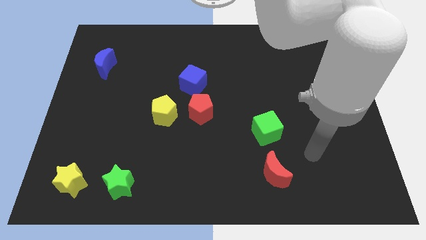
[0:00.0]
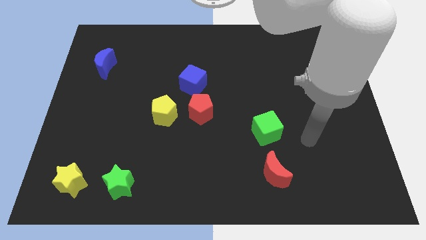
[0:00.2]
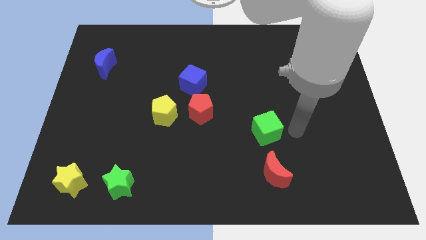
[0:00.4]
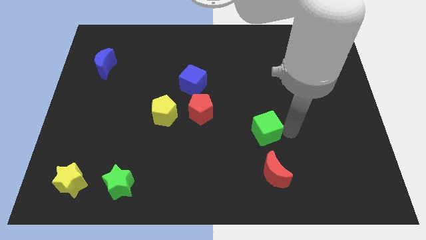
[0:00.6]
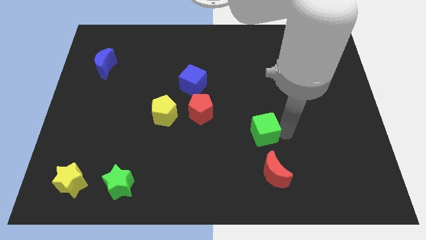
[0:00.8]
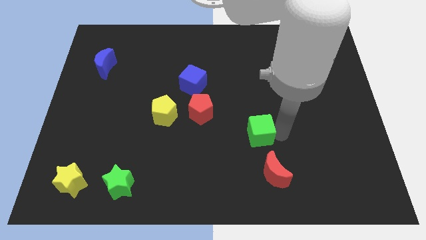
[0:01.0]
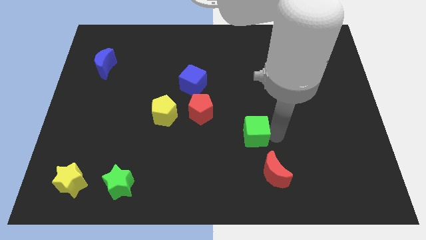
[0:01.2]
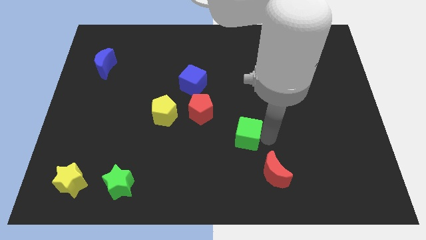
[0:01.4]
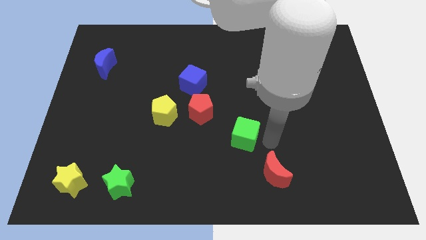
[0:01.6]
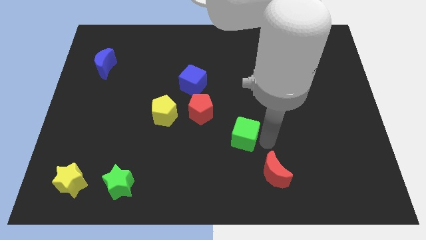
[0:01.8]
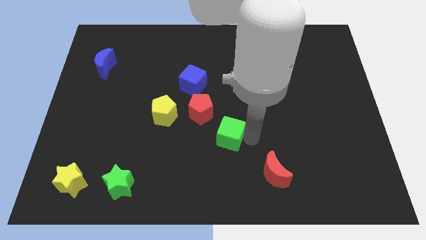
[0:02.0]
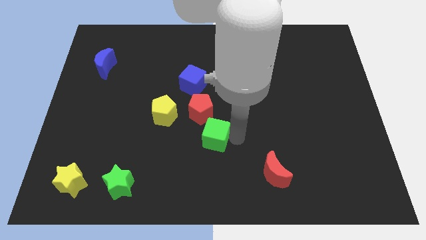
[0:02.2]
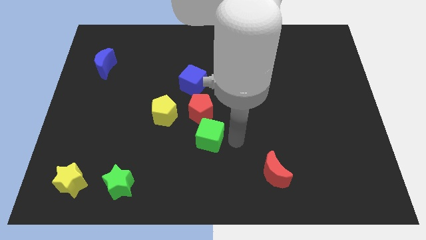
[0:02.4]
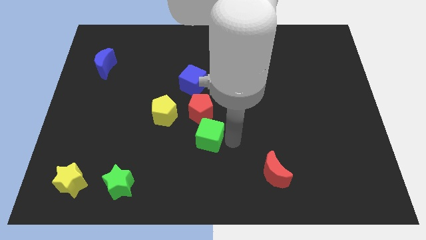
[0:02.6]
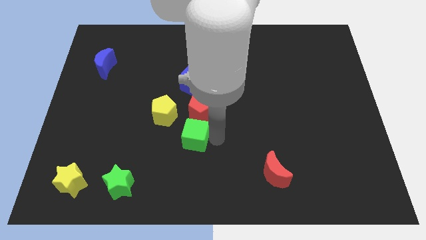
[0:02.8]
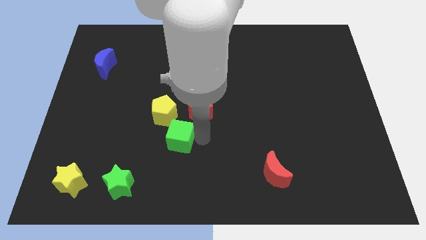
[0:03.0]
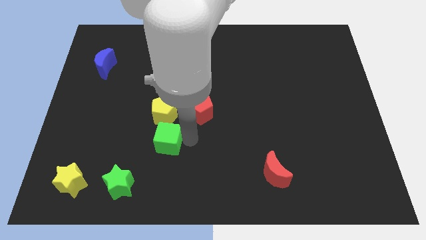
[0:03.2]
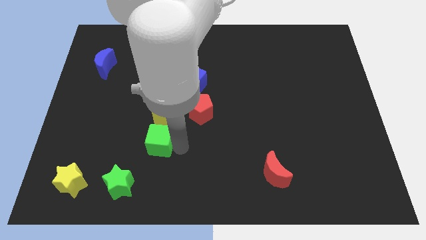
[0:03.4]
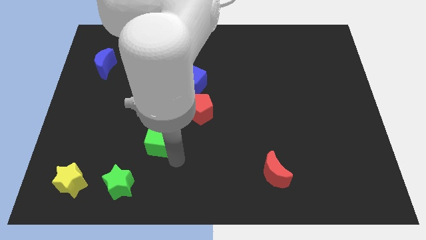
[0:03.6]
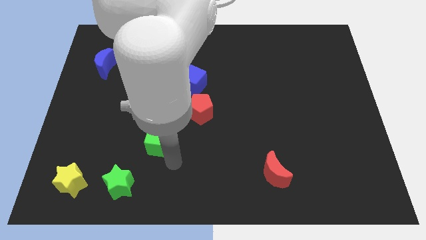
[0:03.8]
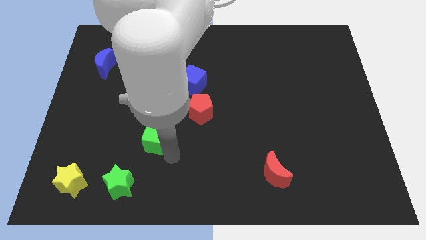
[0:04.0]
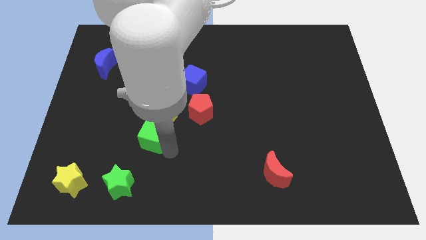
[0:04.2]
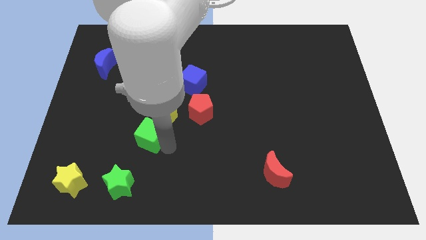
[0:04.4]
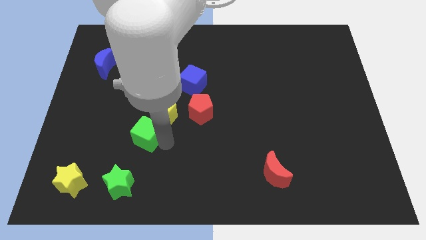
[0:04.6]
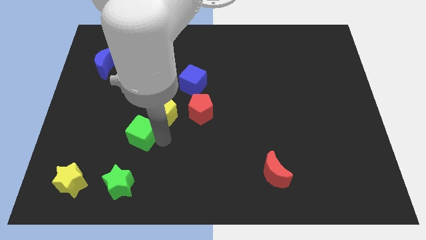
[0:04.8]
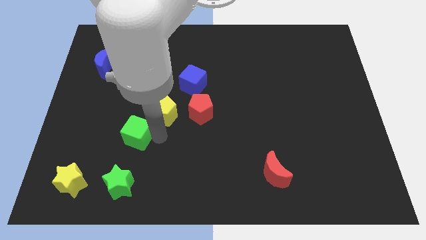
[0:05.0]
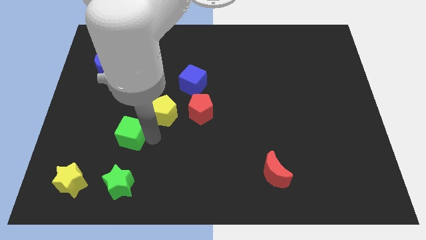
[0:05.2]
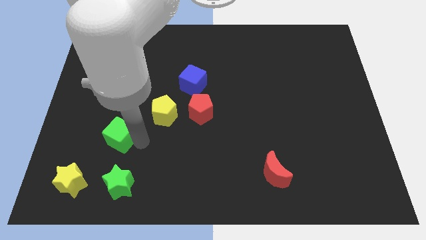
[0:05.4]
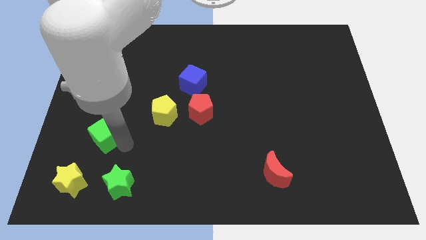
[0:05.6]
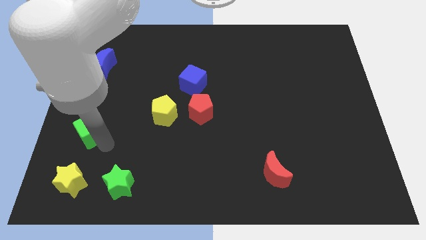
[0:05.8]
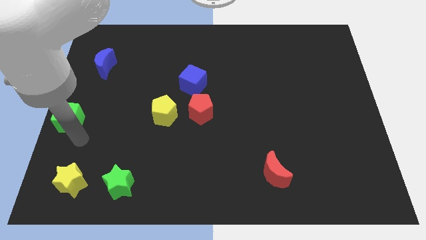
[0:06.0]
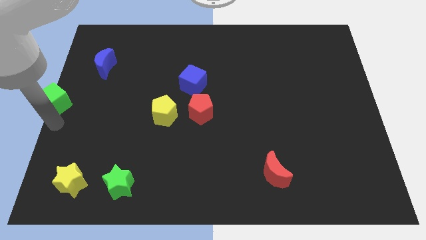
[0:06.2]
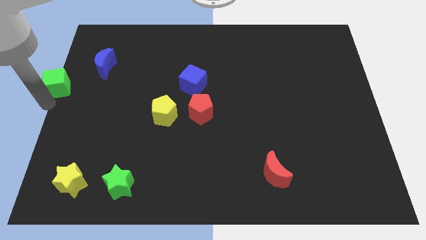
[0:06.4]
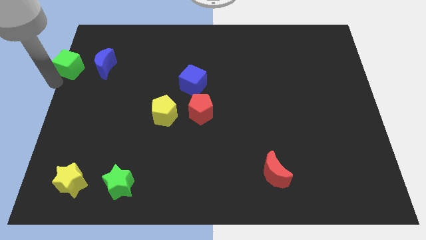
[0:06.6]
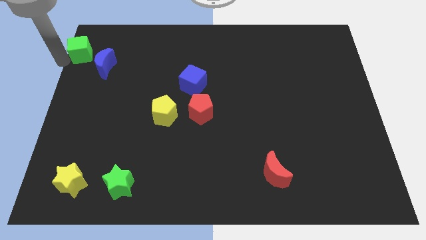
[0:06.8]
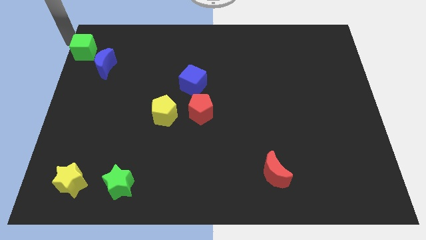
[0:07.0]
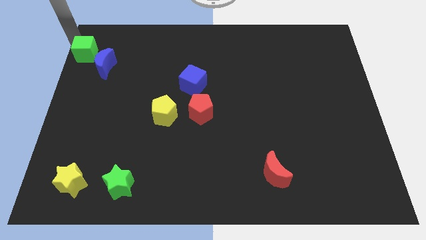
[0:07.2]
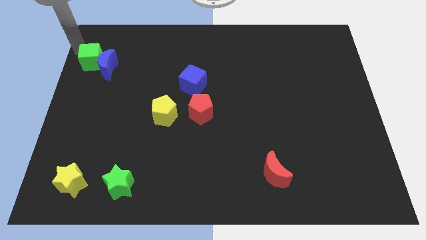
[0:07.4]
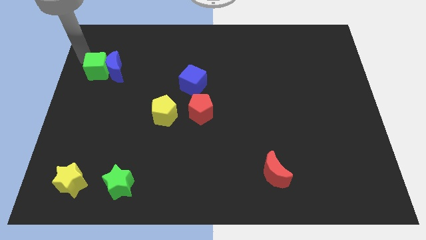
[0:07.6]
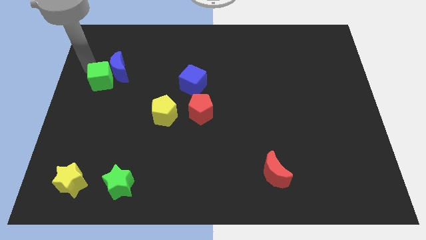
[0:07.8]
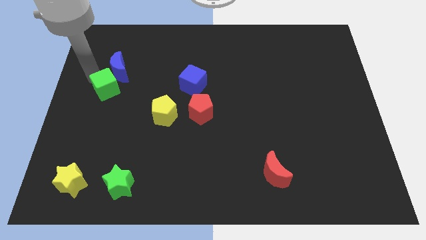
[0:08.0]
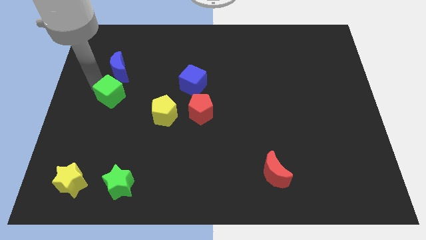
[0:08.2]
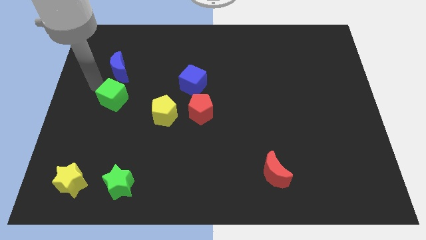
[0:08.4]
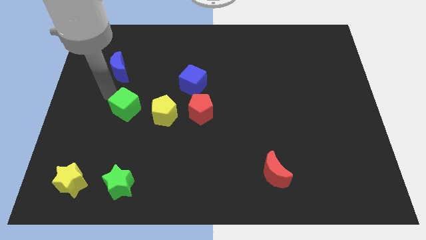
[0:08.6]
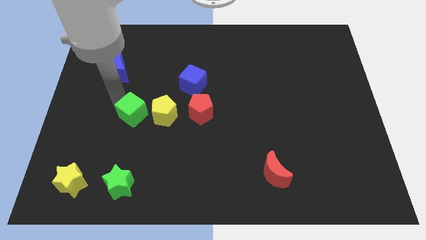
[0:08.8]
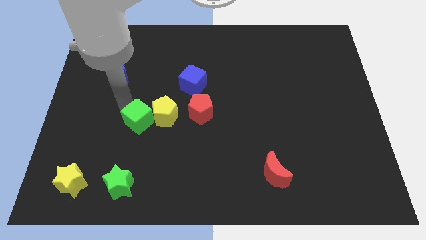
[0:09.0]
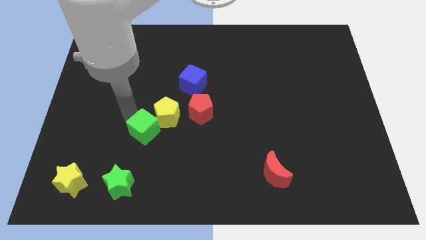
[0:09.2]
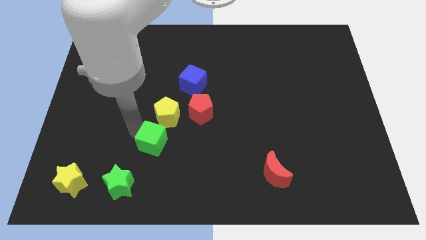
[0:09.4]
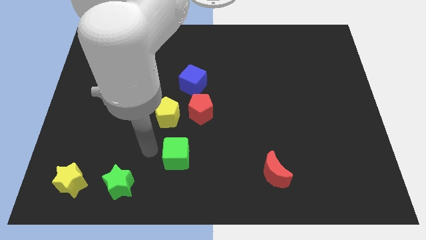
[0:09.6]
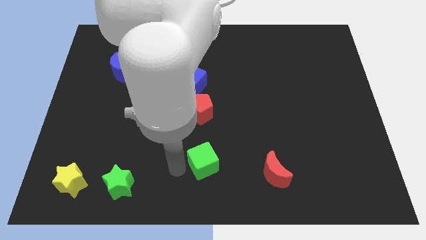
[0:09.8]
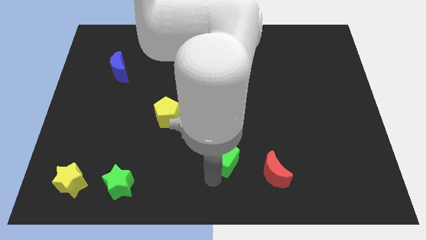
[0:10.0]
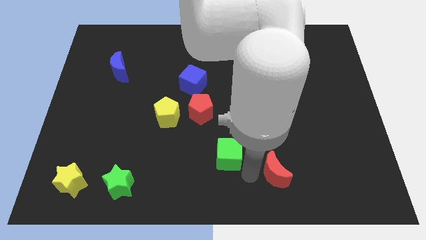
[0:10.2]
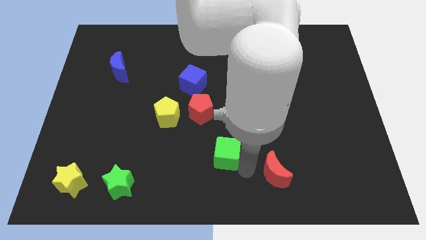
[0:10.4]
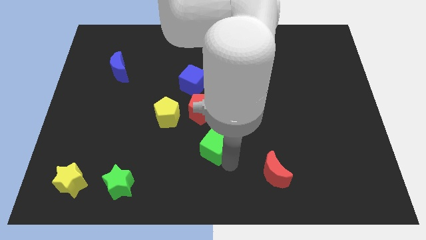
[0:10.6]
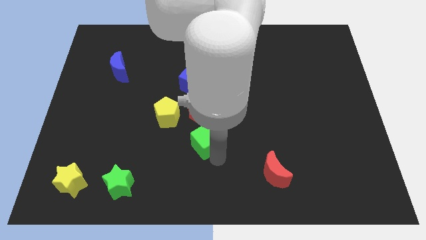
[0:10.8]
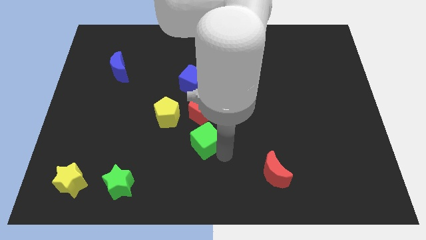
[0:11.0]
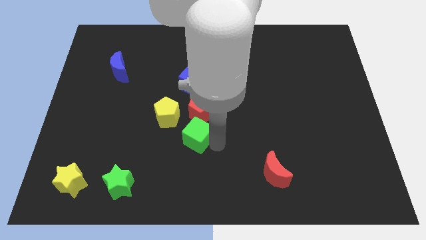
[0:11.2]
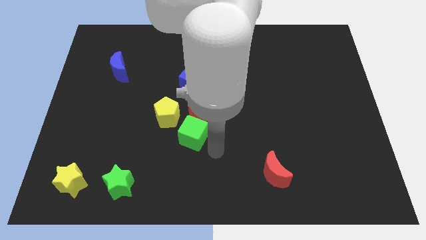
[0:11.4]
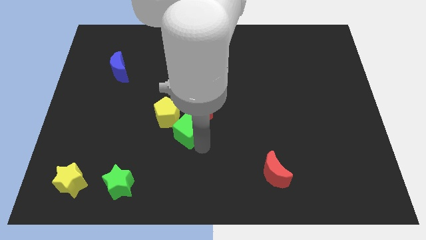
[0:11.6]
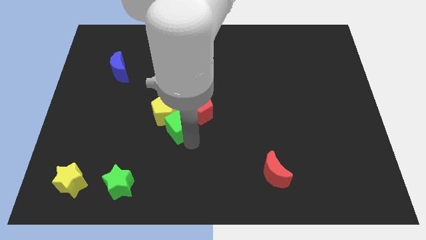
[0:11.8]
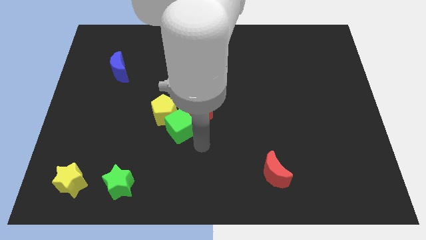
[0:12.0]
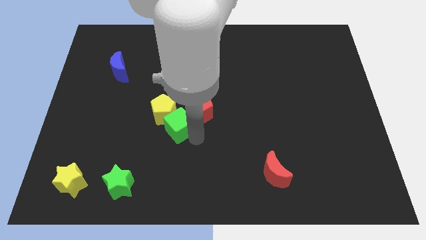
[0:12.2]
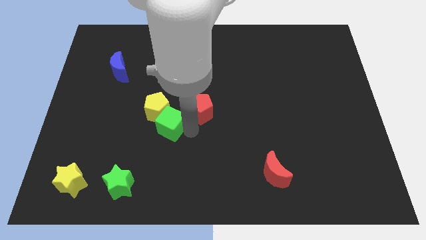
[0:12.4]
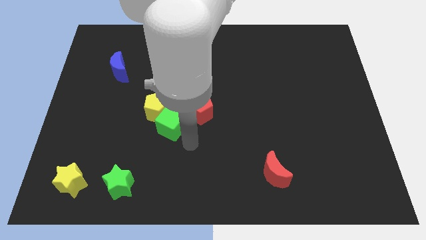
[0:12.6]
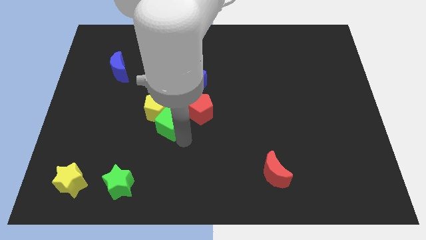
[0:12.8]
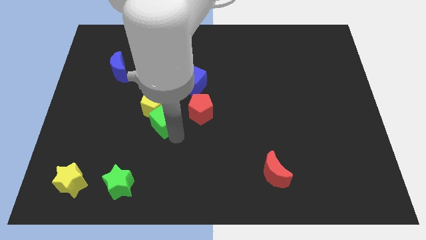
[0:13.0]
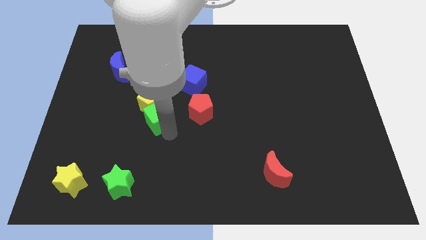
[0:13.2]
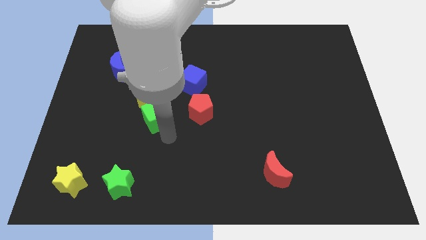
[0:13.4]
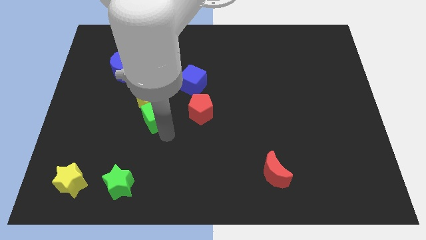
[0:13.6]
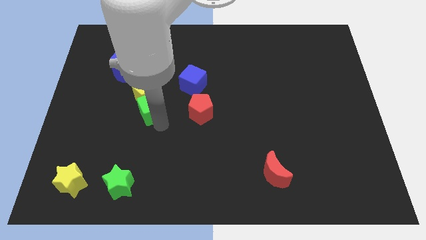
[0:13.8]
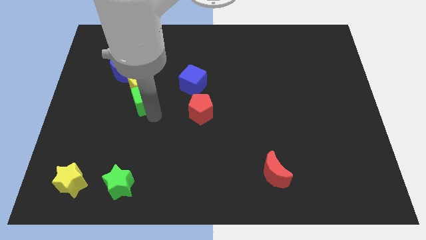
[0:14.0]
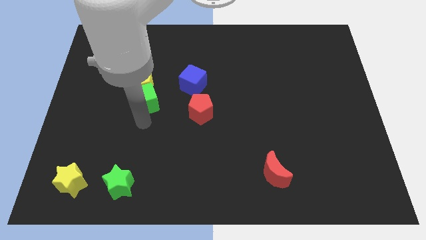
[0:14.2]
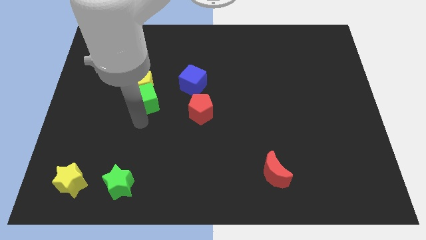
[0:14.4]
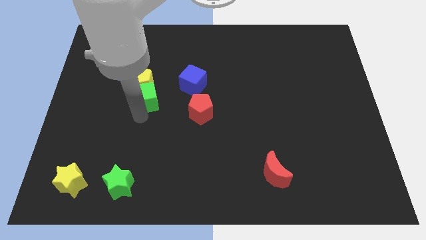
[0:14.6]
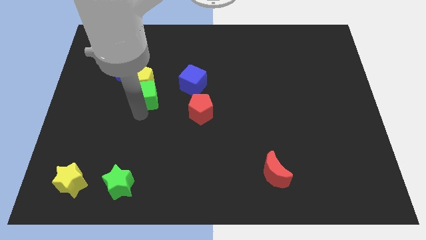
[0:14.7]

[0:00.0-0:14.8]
put the green cube to the left side of the blue cube
